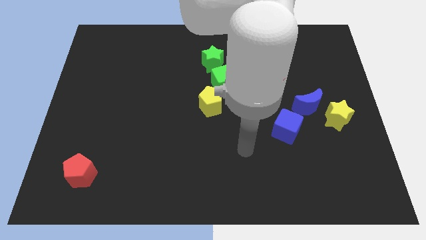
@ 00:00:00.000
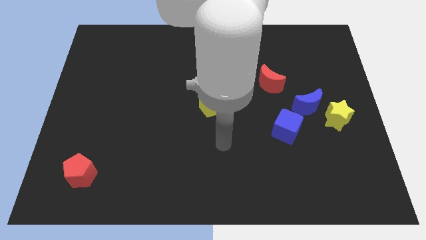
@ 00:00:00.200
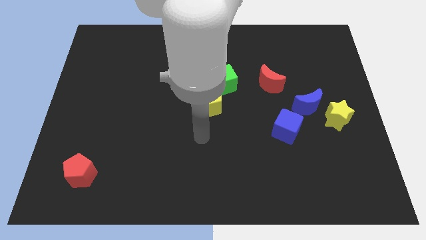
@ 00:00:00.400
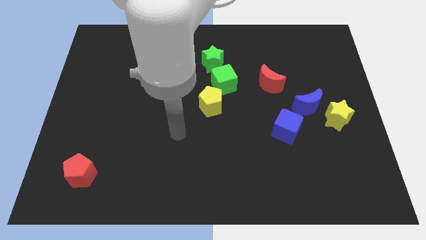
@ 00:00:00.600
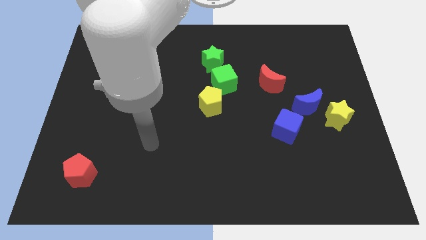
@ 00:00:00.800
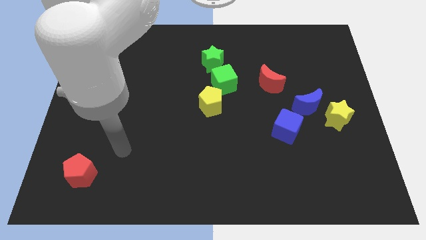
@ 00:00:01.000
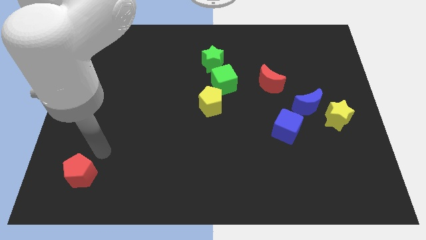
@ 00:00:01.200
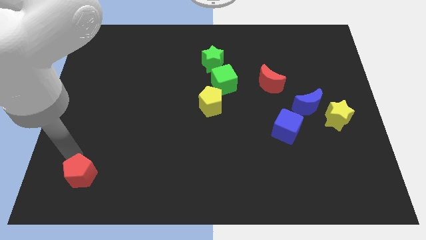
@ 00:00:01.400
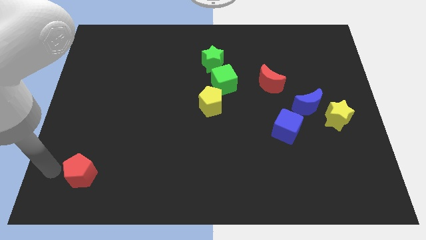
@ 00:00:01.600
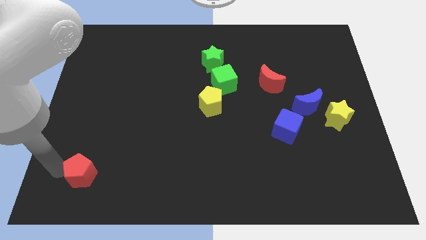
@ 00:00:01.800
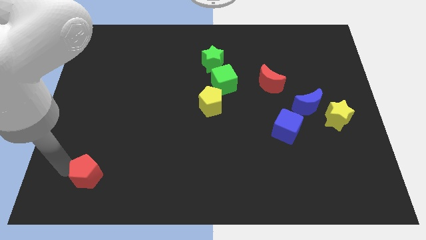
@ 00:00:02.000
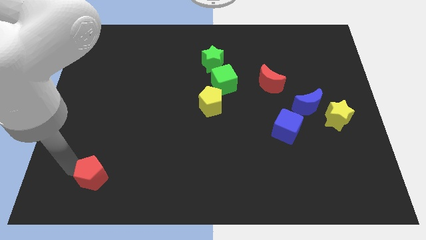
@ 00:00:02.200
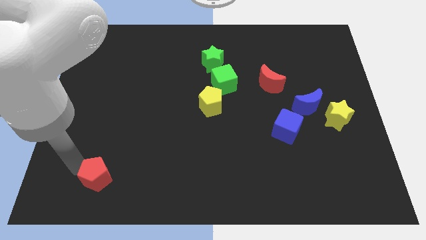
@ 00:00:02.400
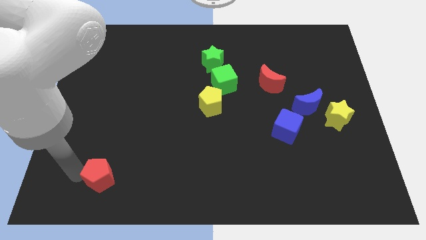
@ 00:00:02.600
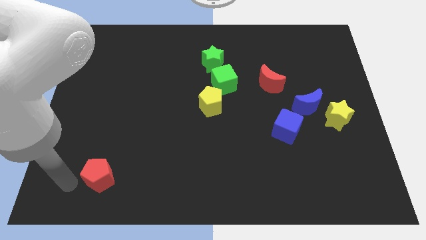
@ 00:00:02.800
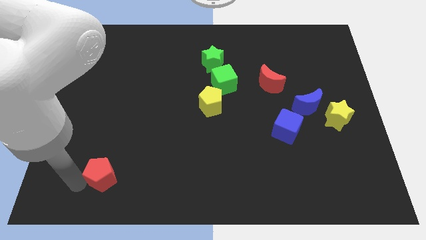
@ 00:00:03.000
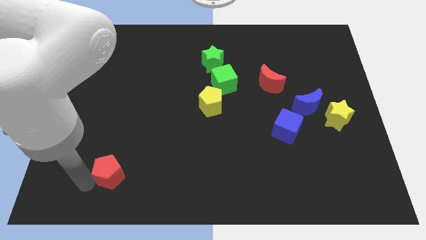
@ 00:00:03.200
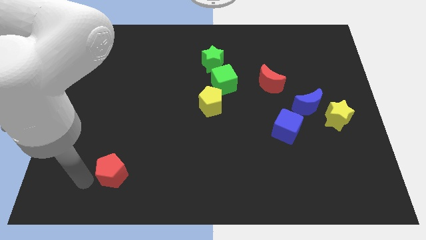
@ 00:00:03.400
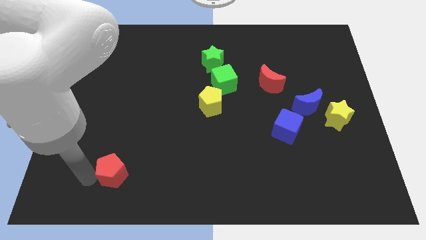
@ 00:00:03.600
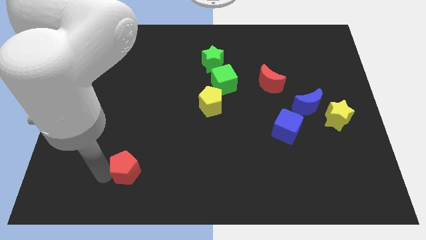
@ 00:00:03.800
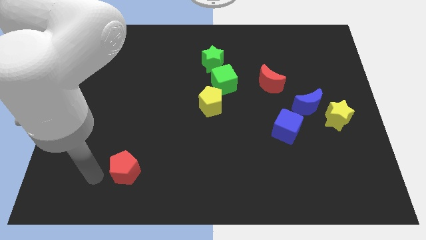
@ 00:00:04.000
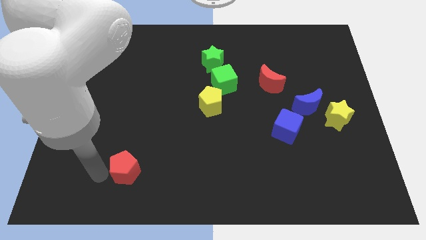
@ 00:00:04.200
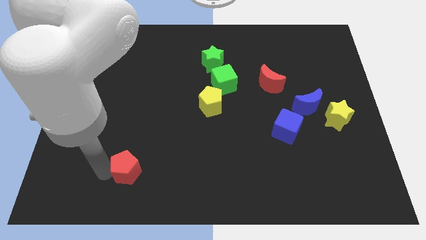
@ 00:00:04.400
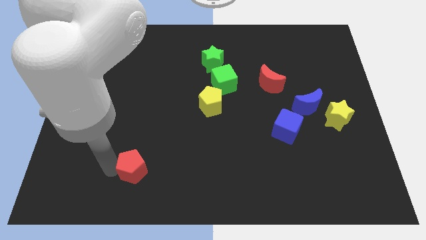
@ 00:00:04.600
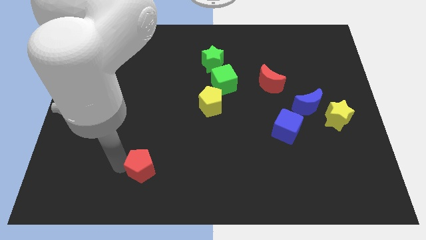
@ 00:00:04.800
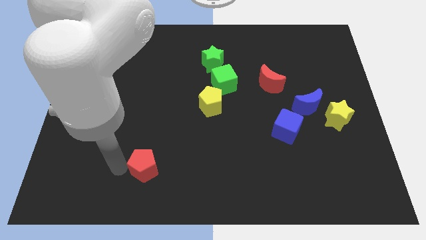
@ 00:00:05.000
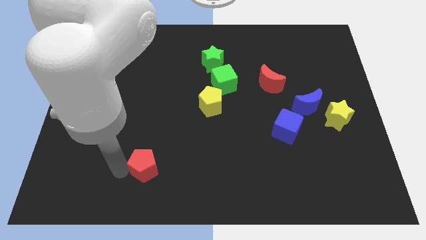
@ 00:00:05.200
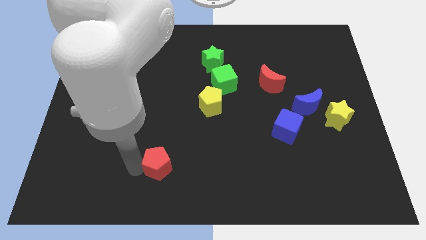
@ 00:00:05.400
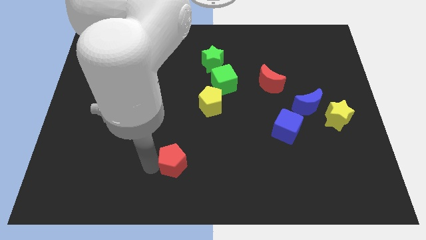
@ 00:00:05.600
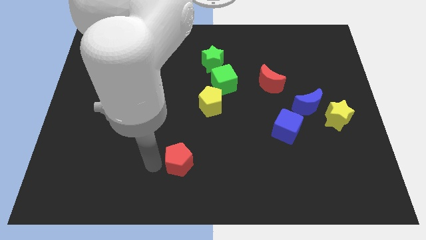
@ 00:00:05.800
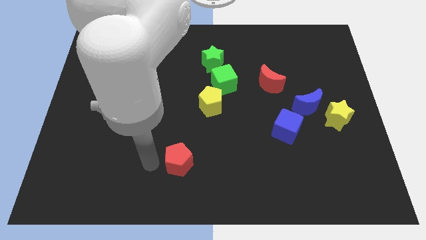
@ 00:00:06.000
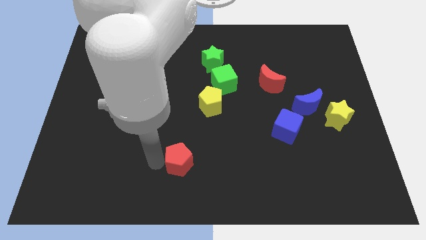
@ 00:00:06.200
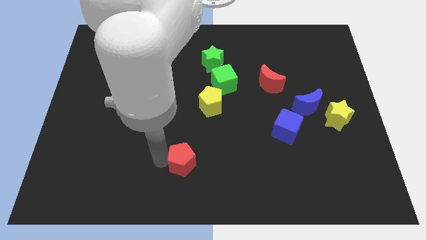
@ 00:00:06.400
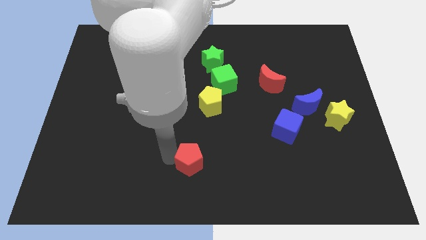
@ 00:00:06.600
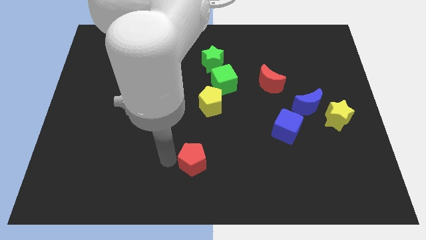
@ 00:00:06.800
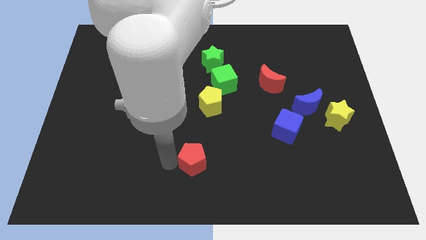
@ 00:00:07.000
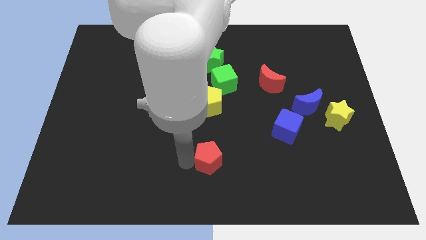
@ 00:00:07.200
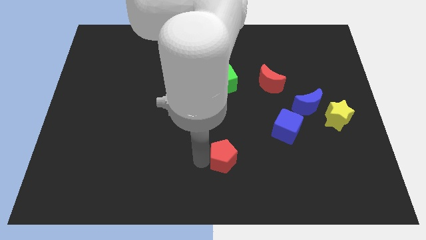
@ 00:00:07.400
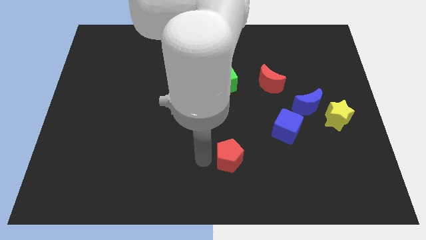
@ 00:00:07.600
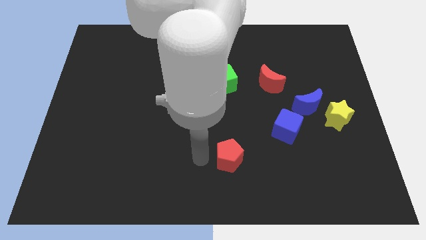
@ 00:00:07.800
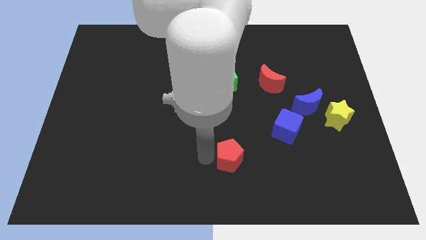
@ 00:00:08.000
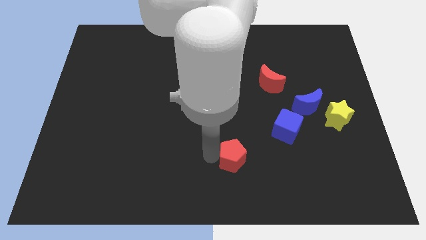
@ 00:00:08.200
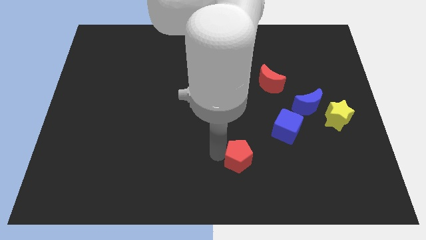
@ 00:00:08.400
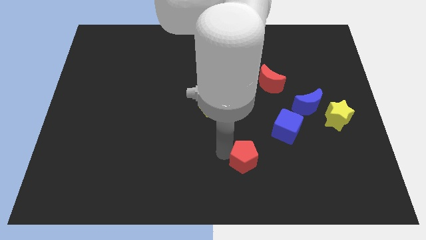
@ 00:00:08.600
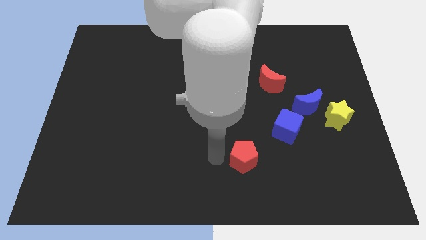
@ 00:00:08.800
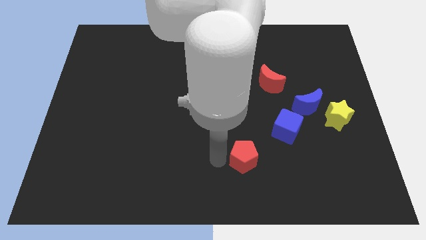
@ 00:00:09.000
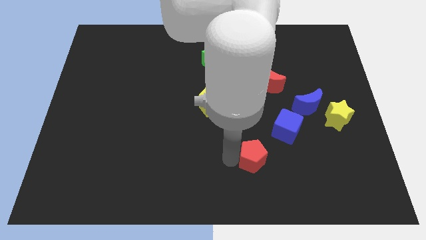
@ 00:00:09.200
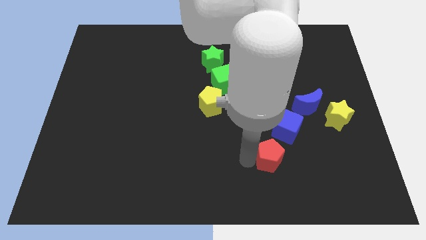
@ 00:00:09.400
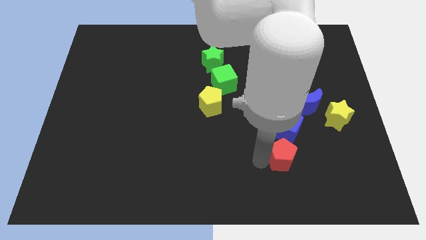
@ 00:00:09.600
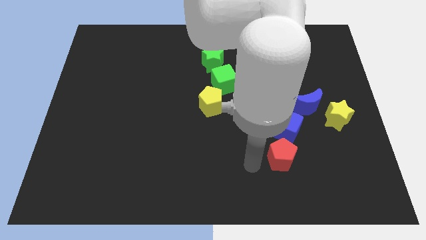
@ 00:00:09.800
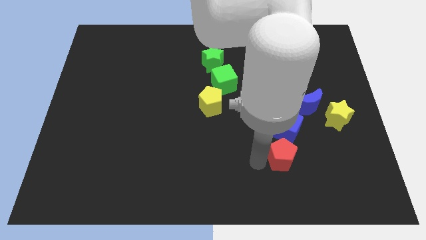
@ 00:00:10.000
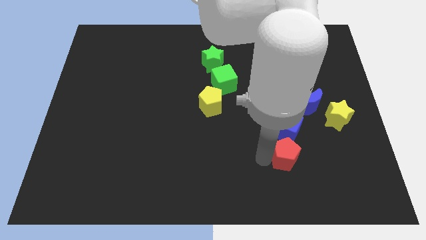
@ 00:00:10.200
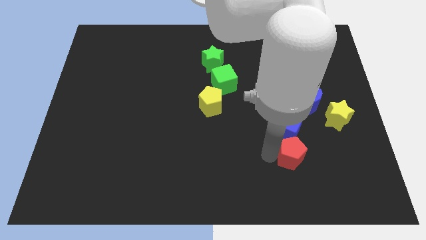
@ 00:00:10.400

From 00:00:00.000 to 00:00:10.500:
move the red pentagon to the bottom right side of the blue cube

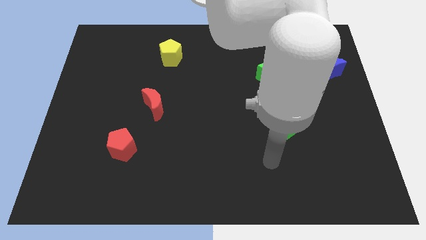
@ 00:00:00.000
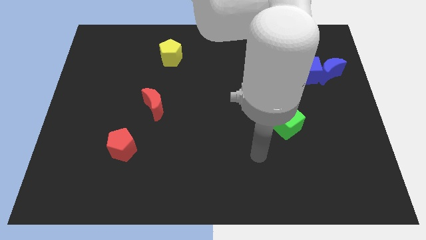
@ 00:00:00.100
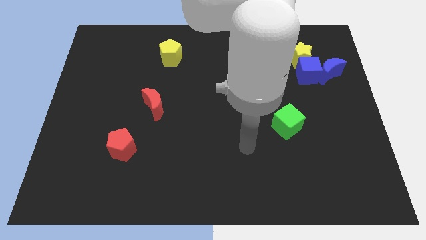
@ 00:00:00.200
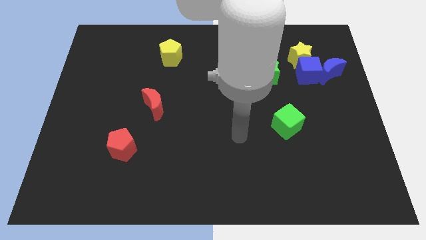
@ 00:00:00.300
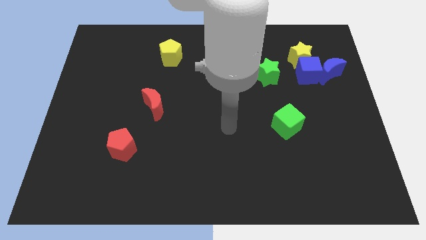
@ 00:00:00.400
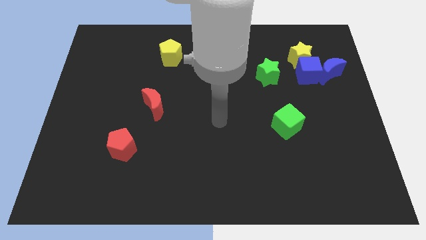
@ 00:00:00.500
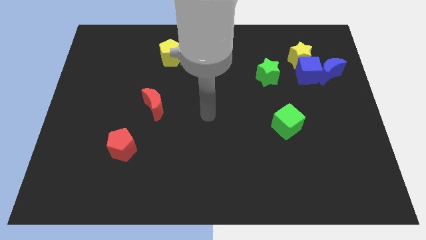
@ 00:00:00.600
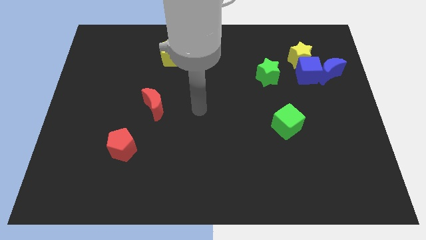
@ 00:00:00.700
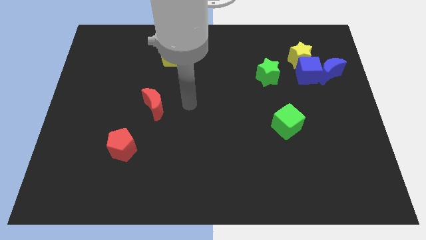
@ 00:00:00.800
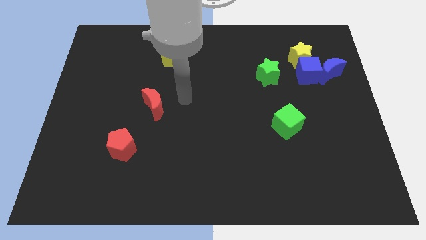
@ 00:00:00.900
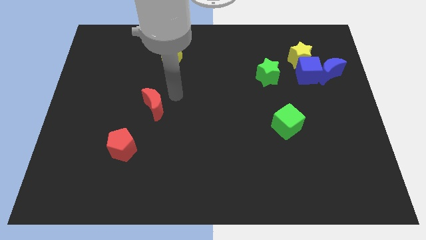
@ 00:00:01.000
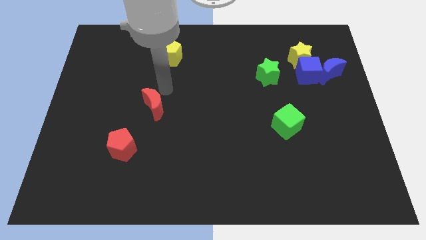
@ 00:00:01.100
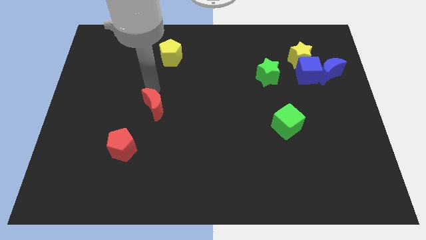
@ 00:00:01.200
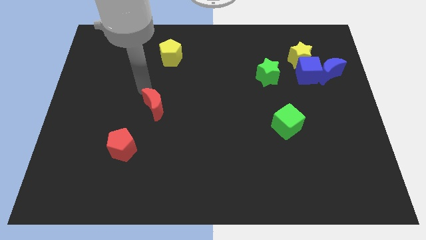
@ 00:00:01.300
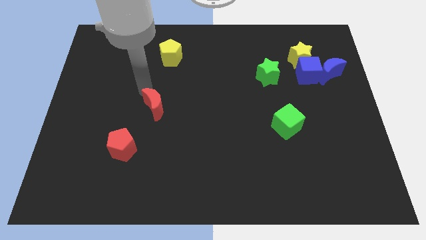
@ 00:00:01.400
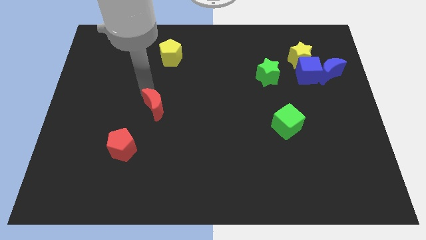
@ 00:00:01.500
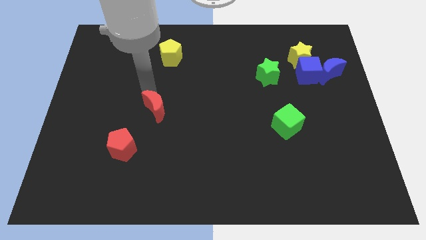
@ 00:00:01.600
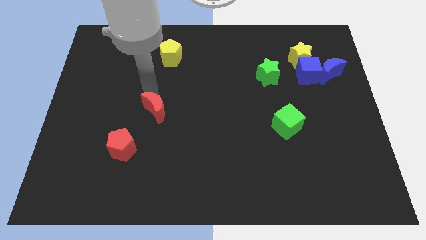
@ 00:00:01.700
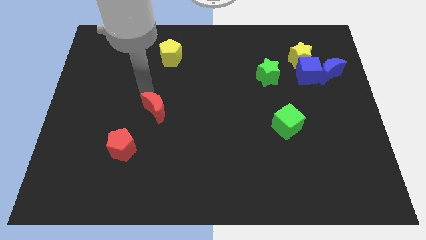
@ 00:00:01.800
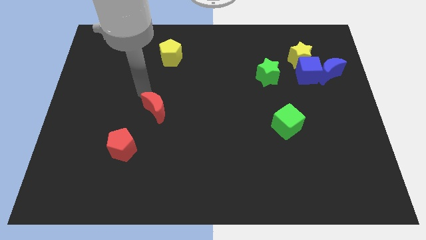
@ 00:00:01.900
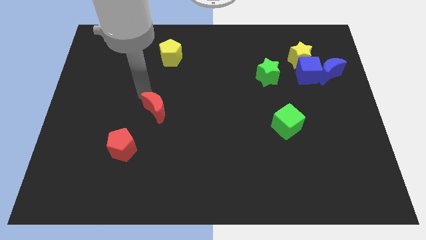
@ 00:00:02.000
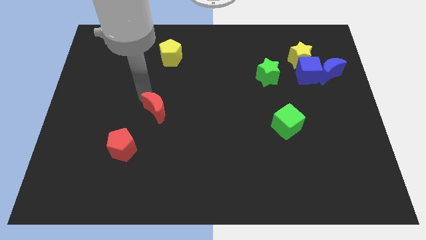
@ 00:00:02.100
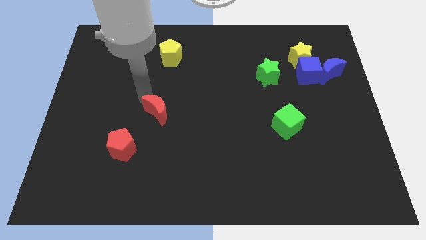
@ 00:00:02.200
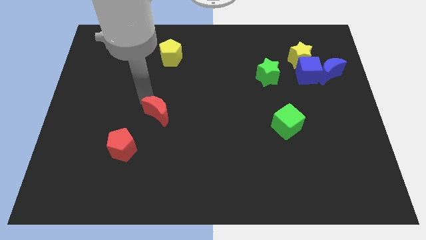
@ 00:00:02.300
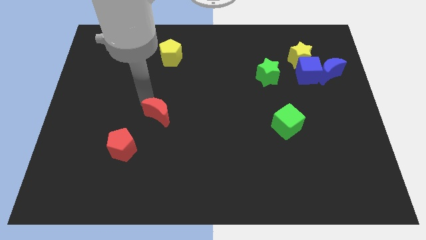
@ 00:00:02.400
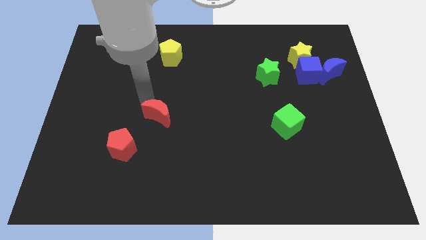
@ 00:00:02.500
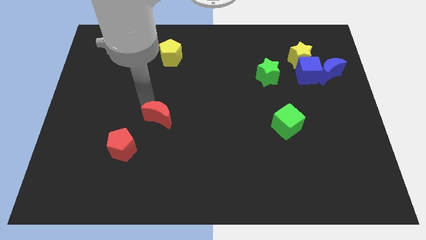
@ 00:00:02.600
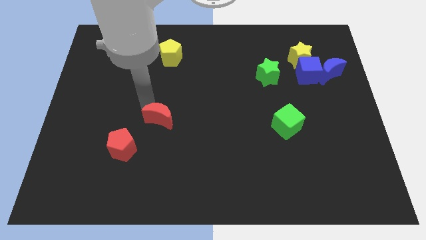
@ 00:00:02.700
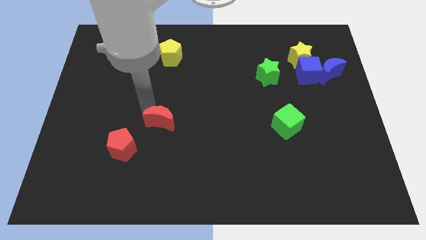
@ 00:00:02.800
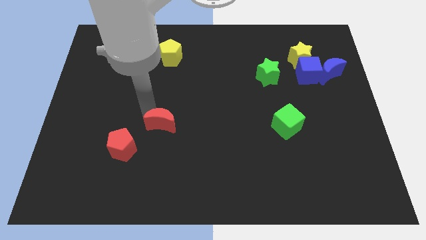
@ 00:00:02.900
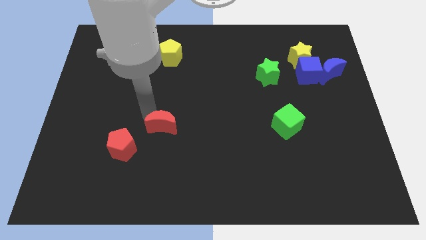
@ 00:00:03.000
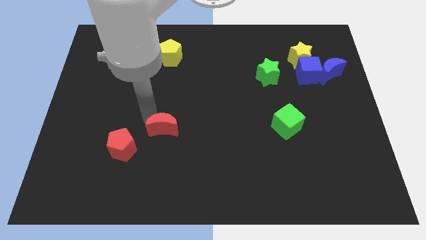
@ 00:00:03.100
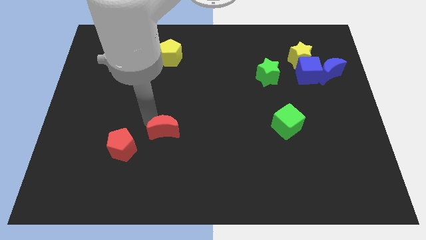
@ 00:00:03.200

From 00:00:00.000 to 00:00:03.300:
put the red moon right of the red pentagon
